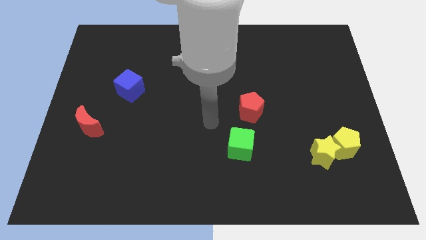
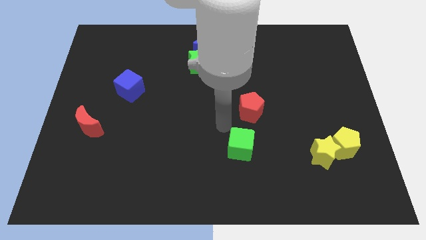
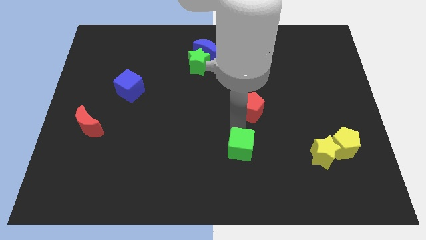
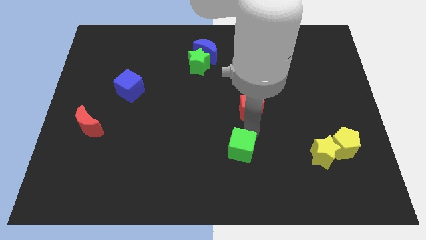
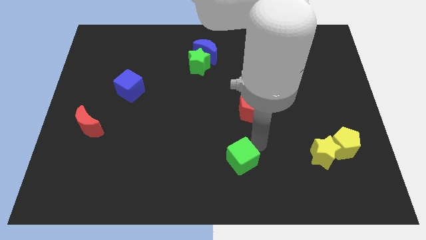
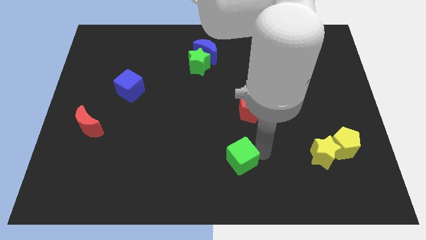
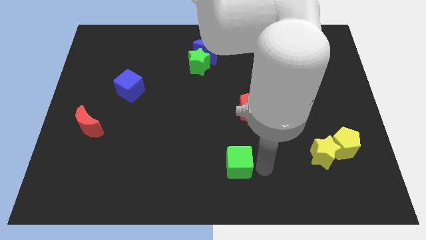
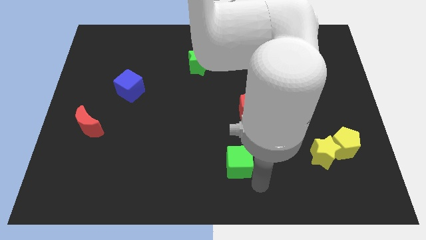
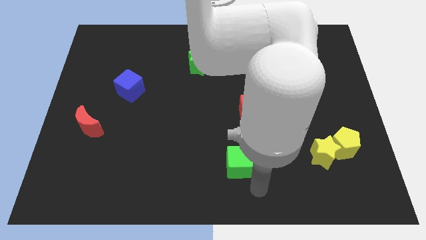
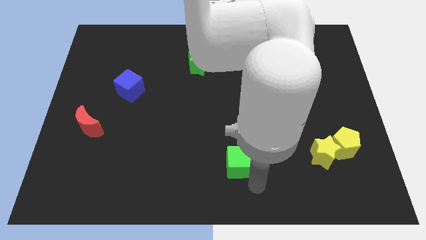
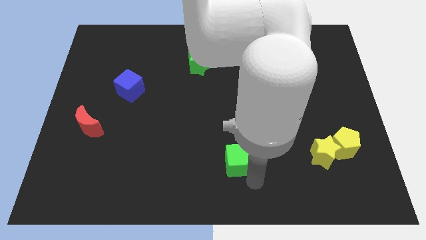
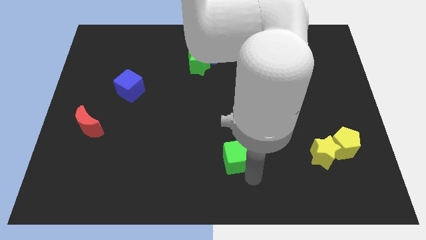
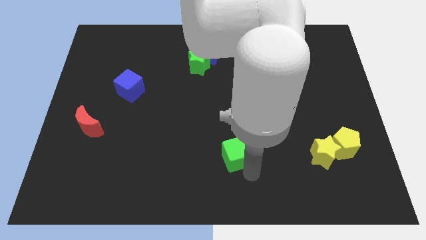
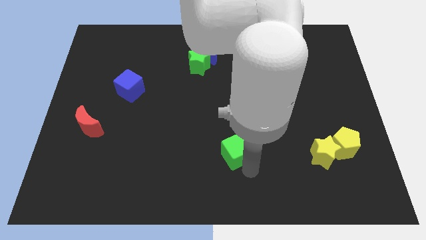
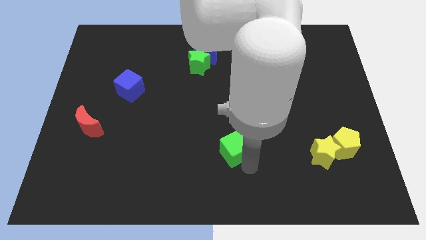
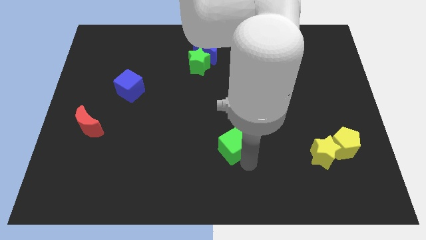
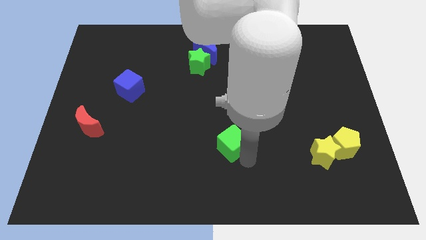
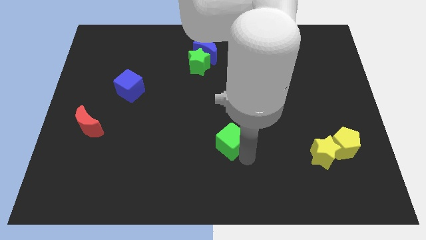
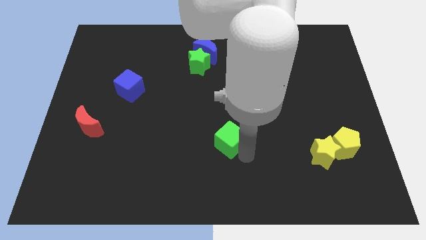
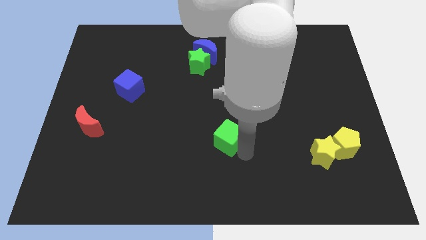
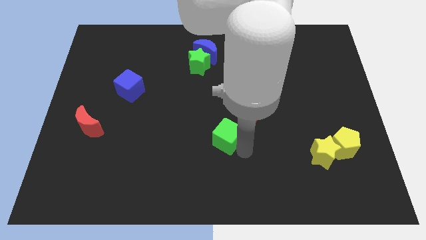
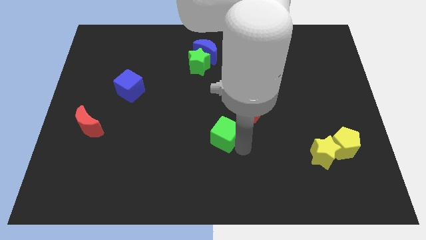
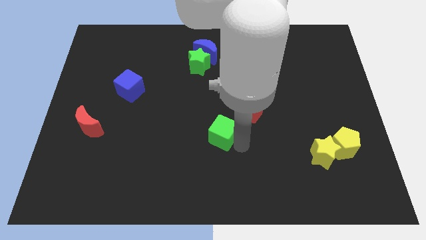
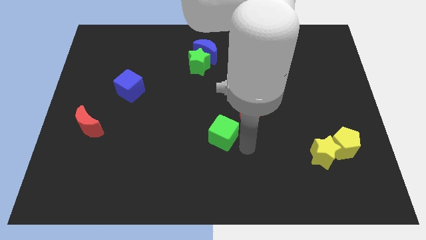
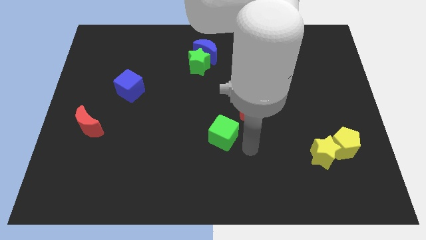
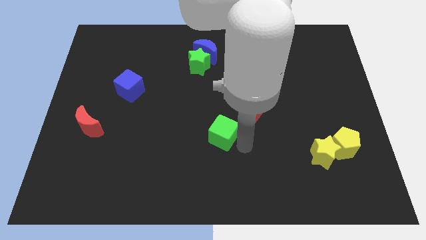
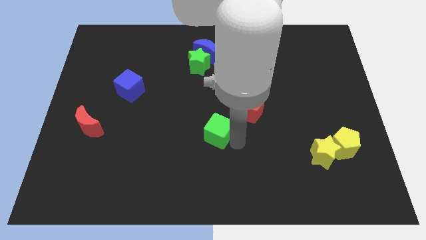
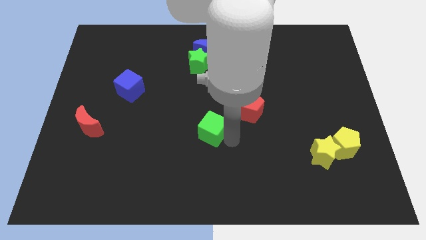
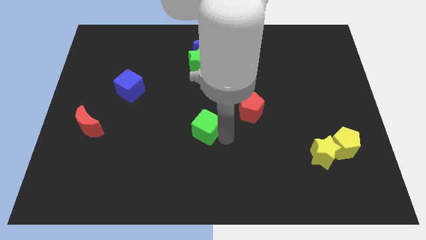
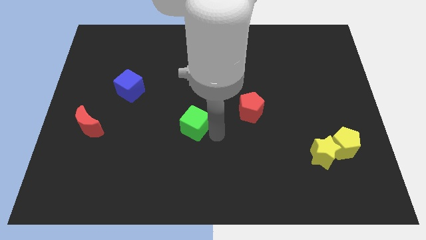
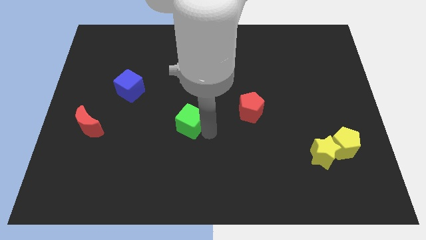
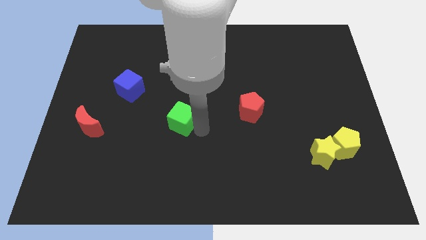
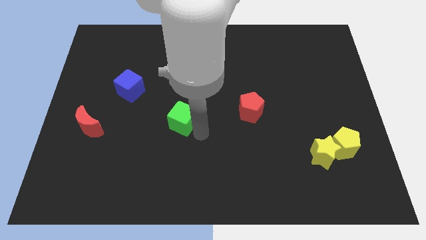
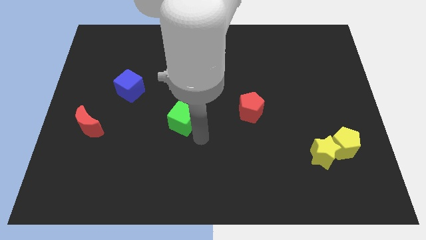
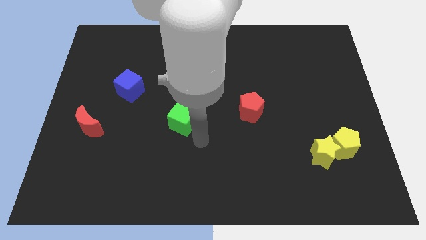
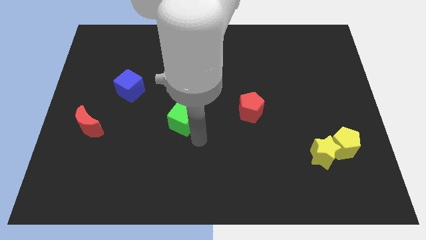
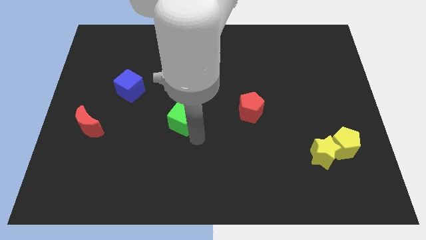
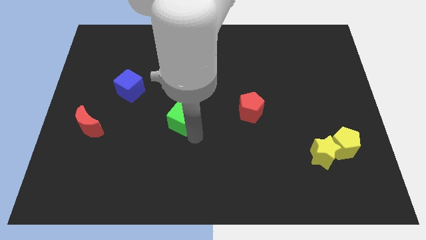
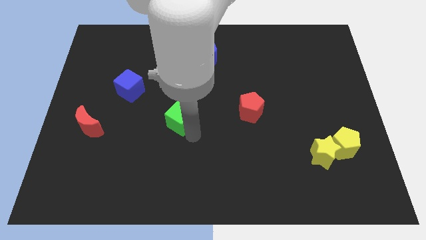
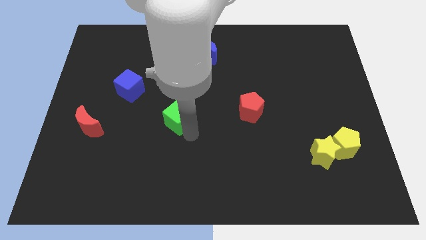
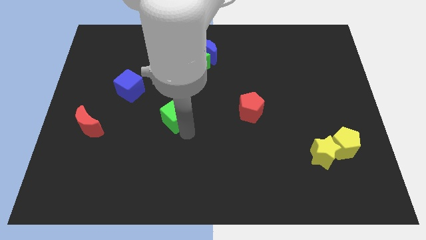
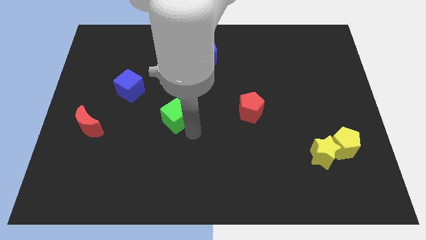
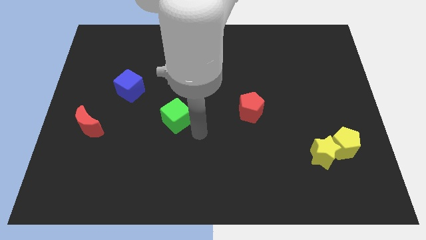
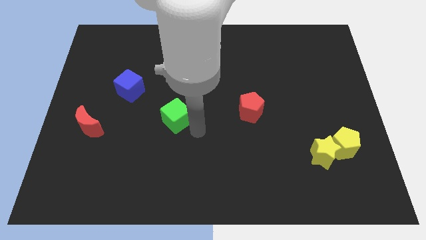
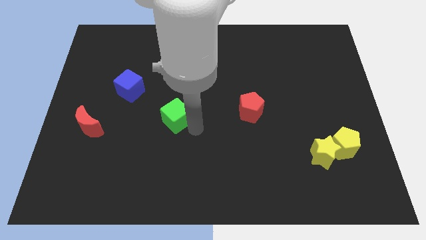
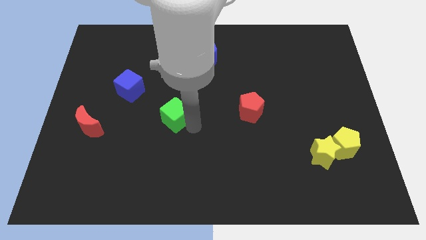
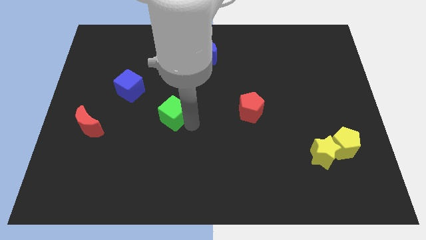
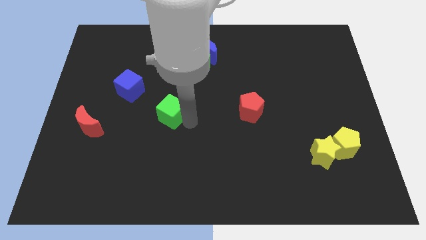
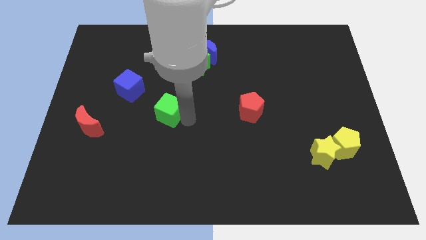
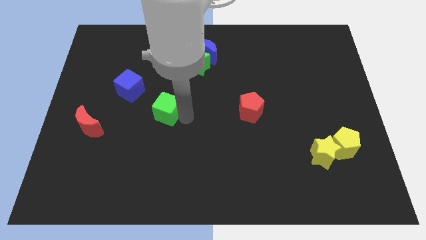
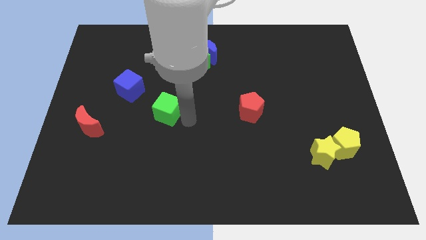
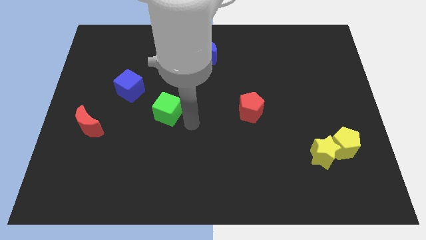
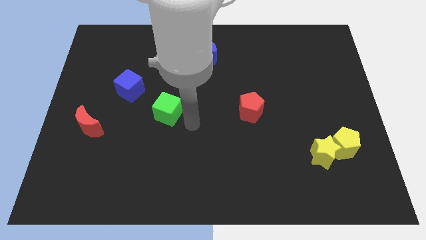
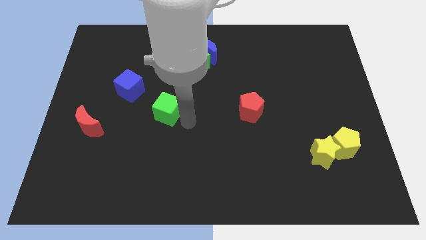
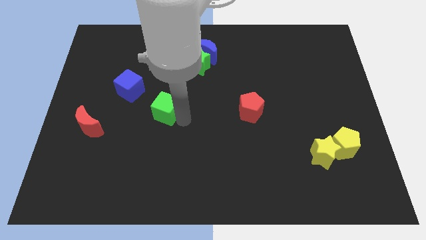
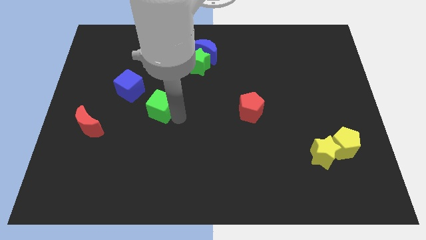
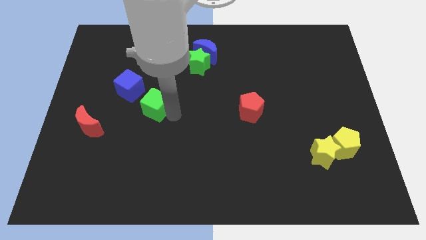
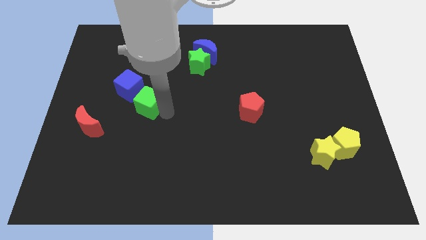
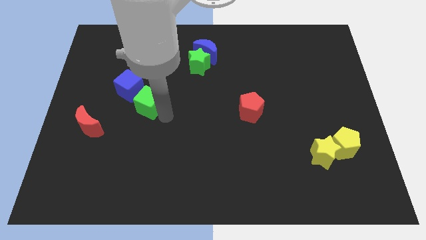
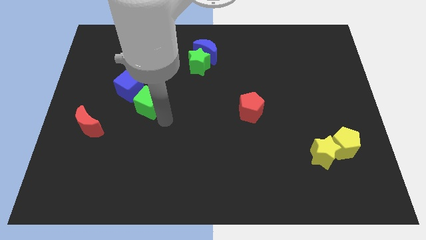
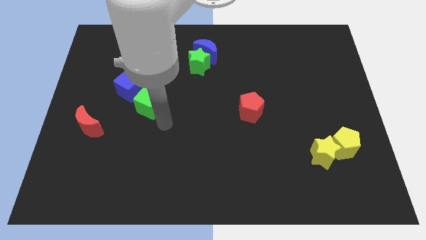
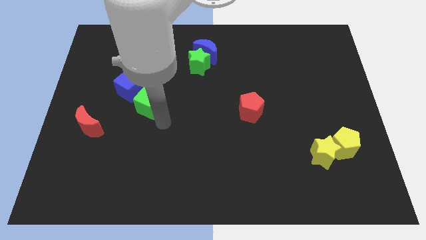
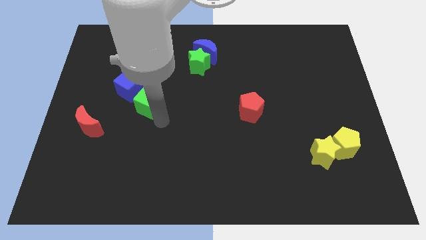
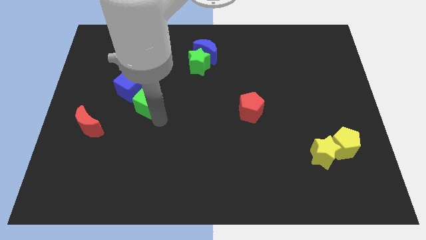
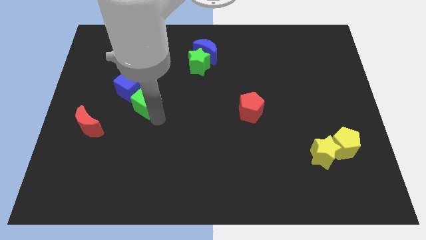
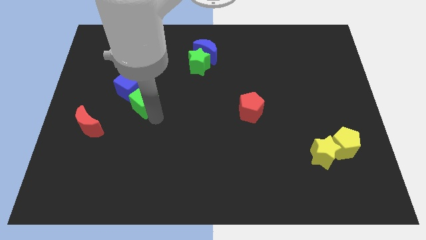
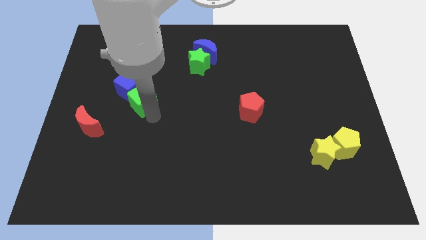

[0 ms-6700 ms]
slide the green cube next to the blue cube

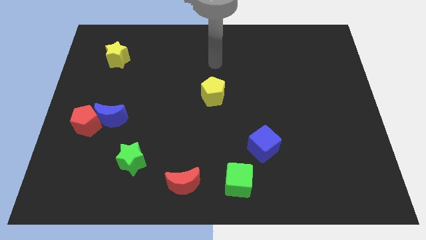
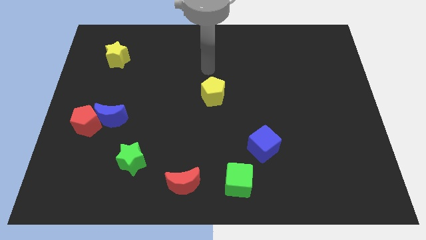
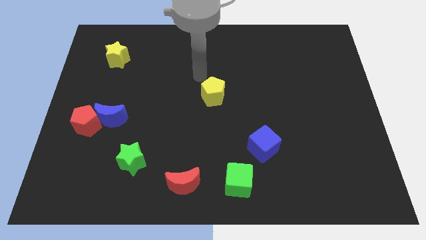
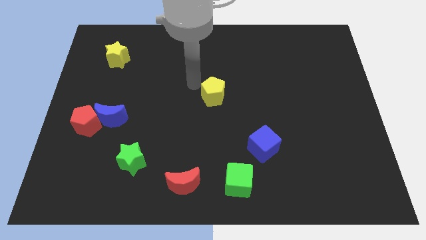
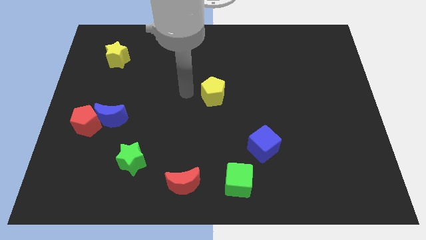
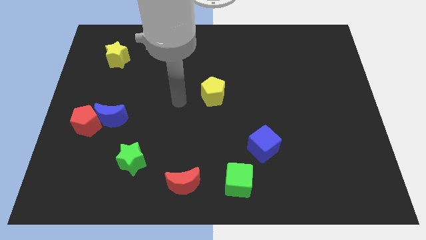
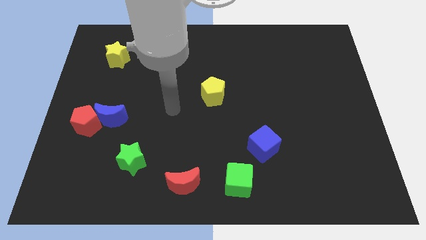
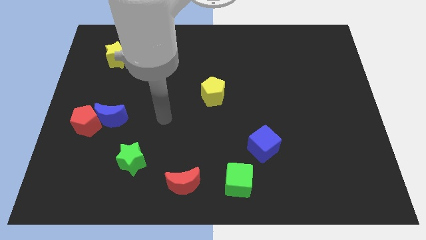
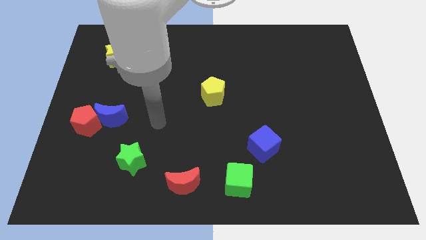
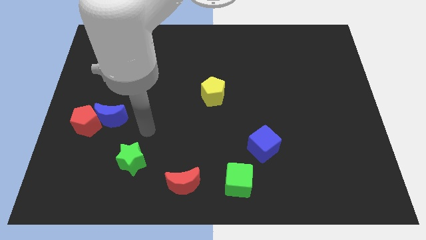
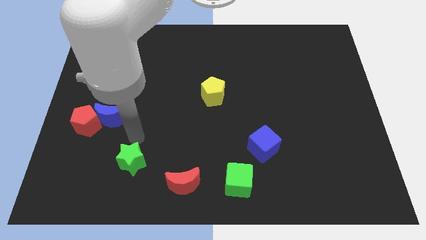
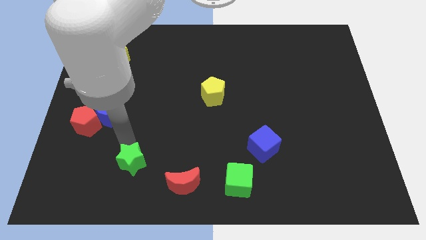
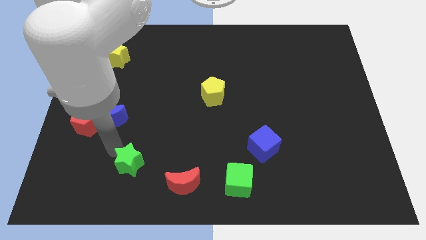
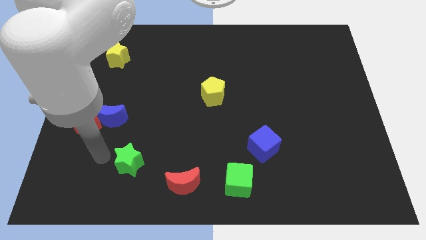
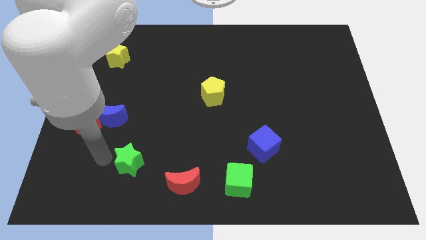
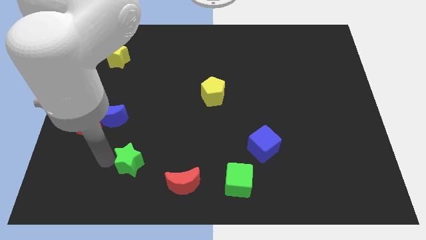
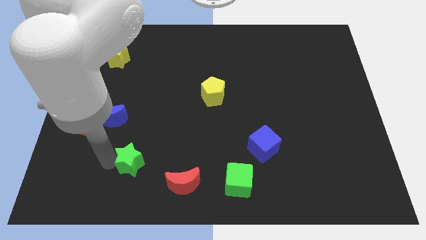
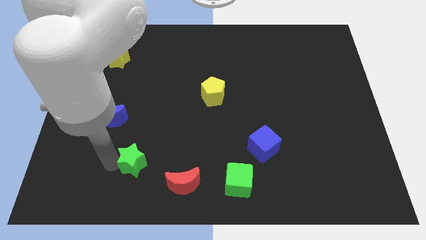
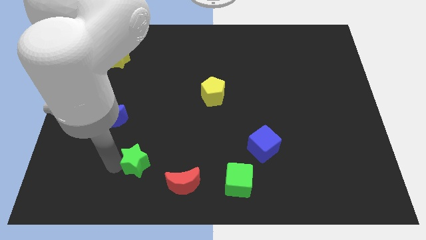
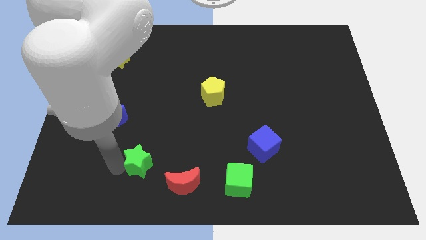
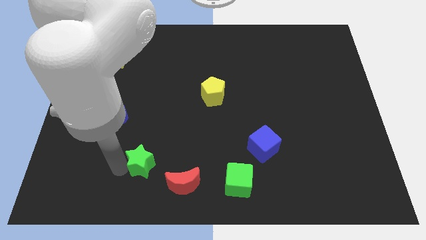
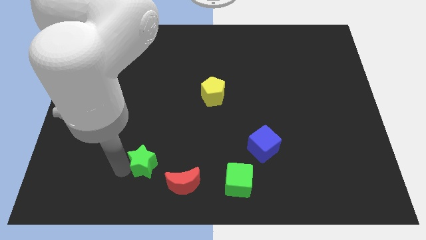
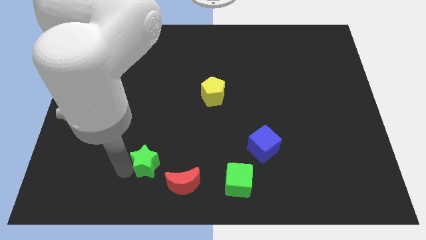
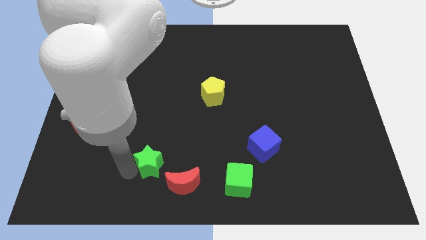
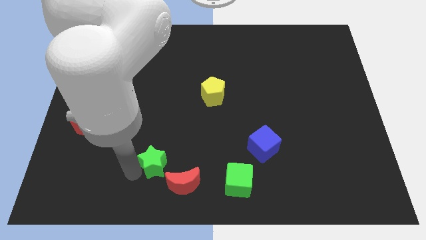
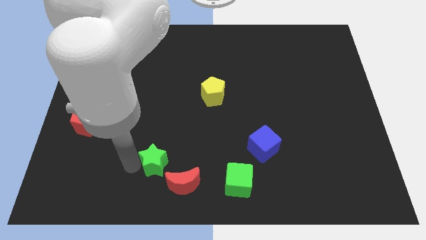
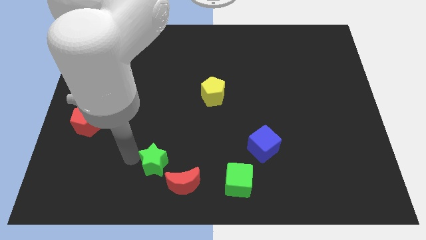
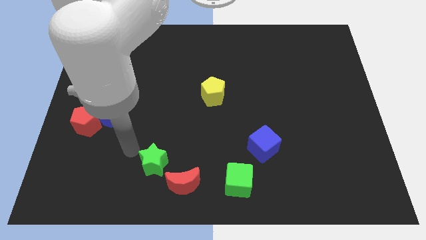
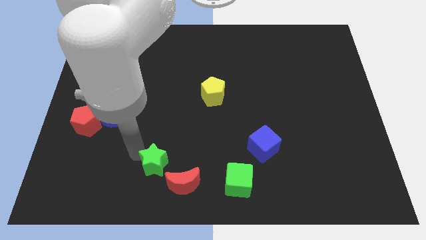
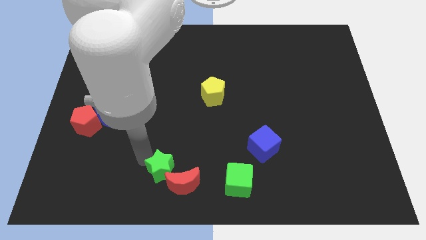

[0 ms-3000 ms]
put the green star next to the red moon
